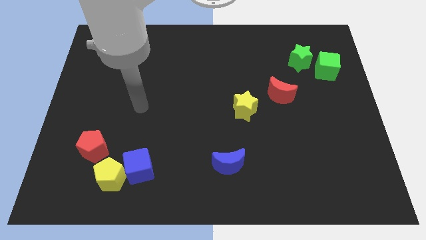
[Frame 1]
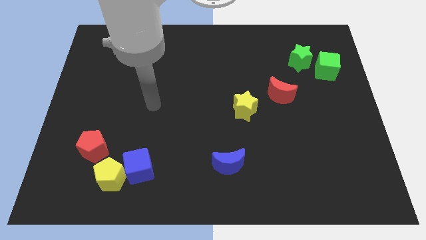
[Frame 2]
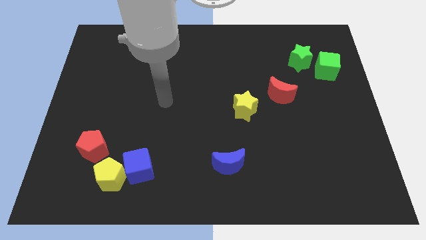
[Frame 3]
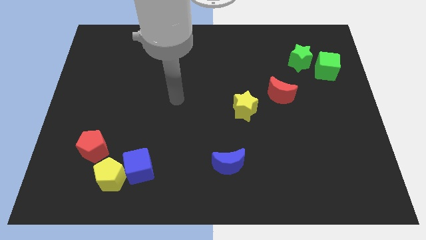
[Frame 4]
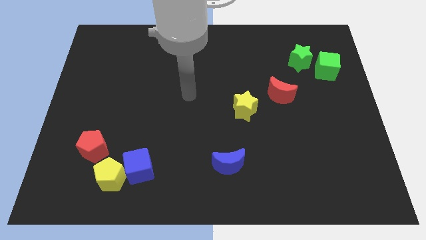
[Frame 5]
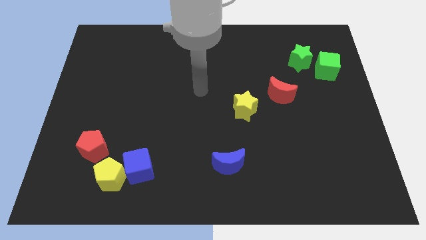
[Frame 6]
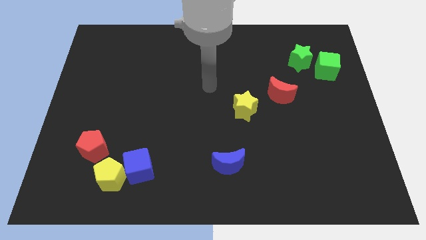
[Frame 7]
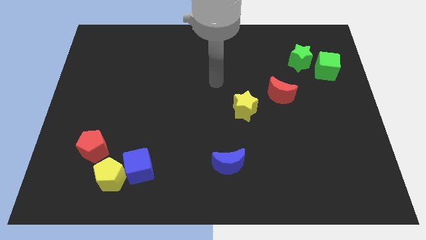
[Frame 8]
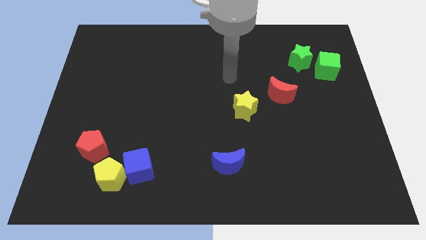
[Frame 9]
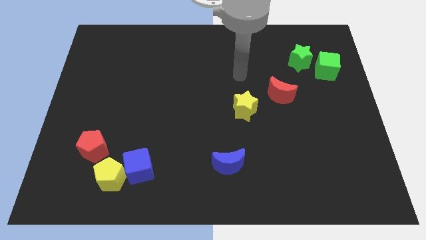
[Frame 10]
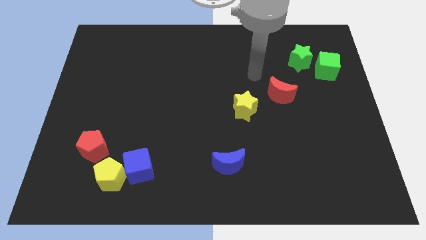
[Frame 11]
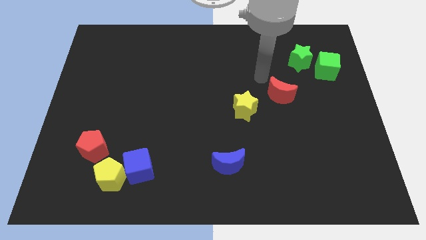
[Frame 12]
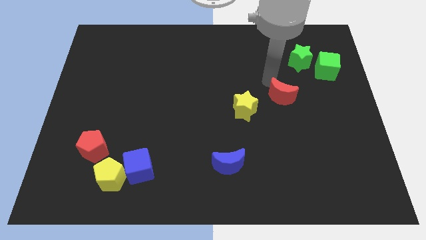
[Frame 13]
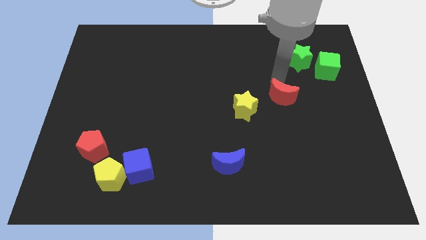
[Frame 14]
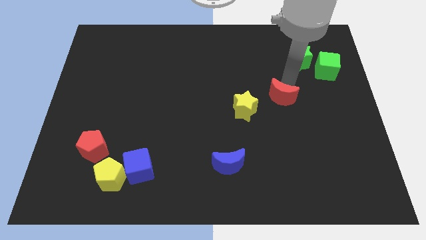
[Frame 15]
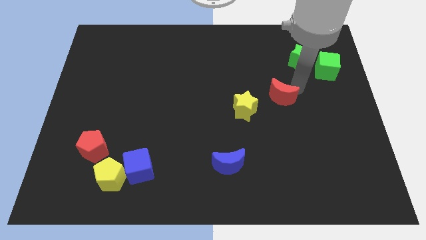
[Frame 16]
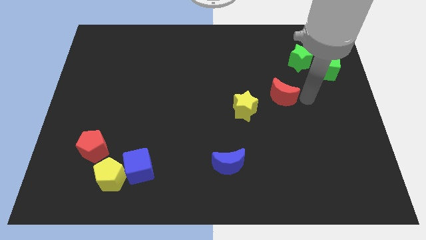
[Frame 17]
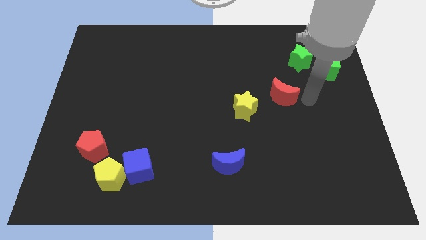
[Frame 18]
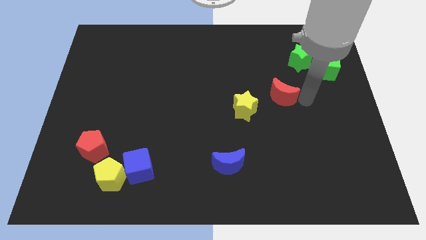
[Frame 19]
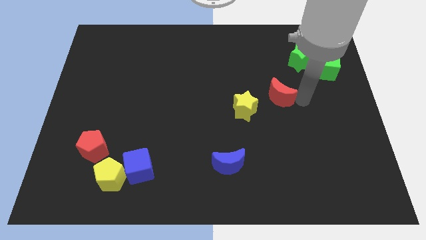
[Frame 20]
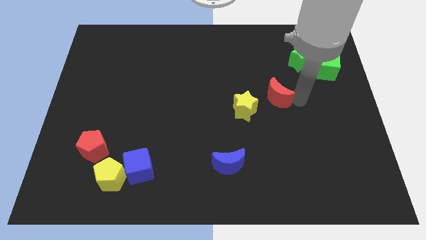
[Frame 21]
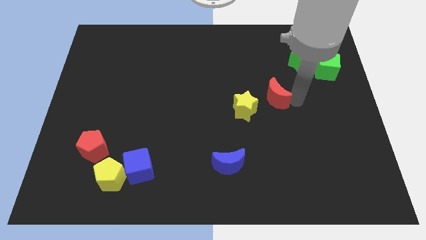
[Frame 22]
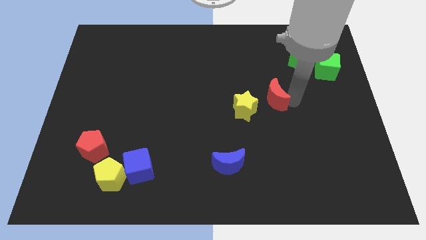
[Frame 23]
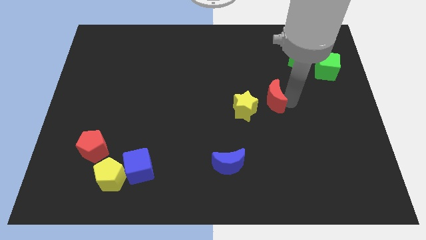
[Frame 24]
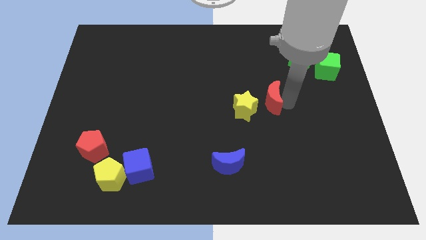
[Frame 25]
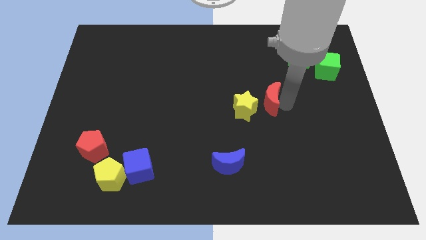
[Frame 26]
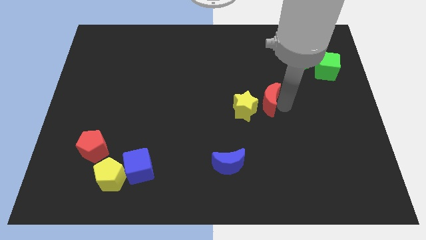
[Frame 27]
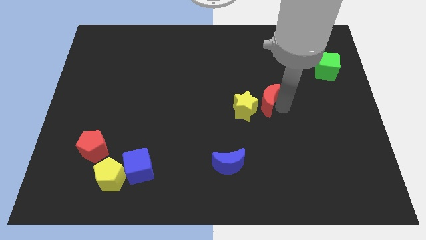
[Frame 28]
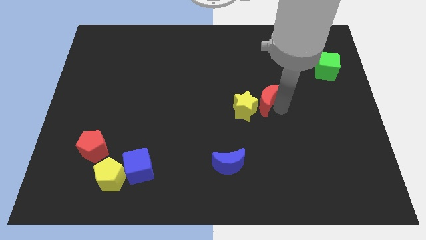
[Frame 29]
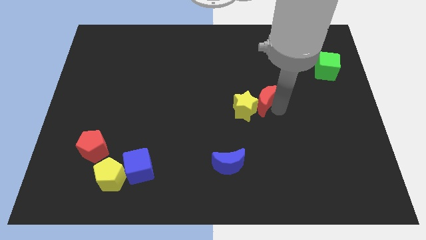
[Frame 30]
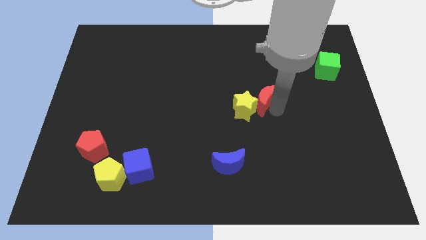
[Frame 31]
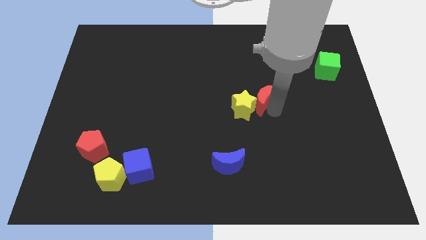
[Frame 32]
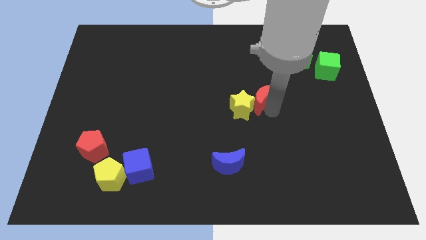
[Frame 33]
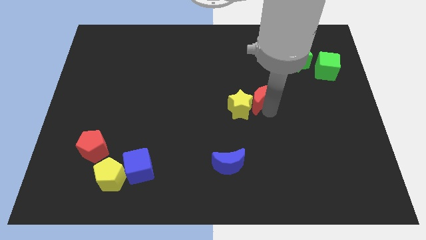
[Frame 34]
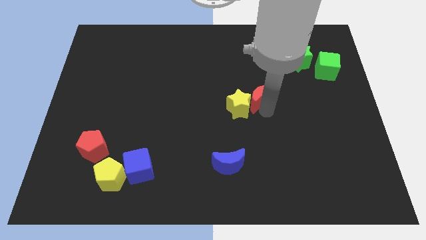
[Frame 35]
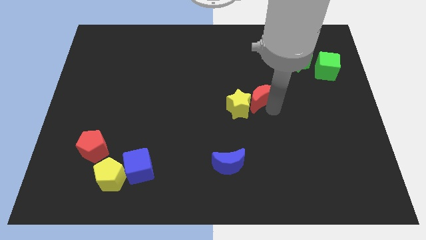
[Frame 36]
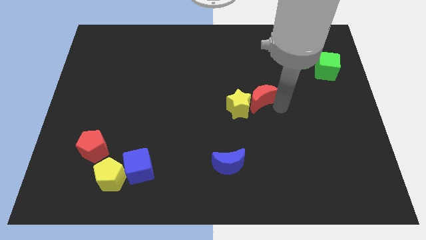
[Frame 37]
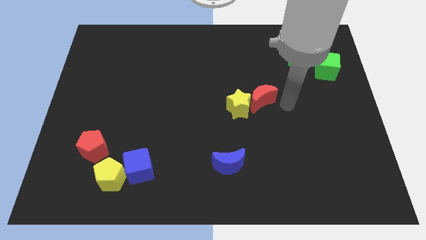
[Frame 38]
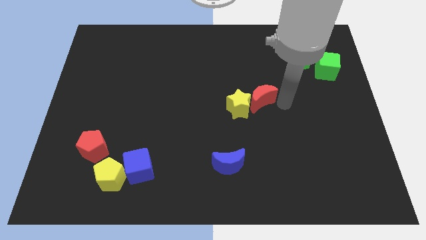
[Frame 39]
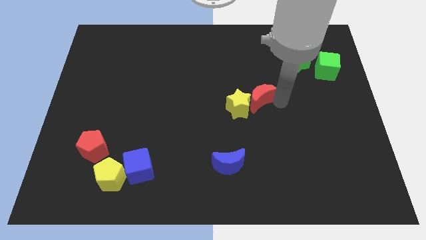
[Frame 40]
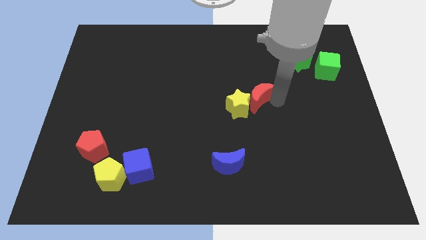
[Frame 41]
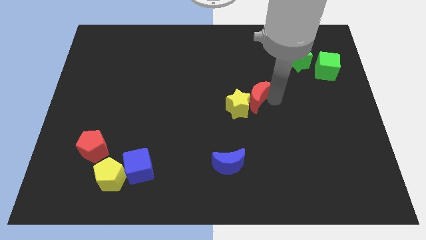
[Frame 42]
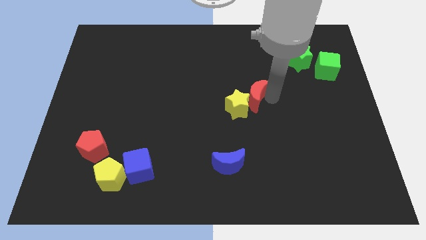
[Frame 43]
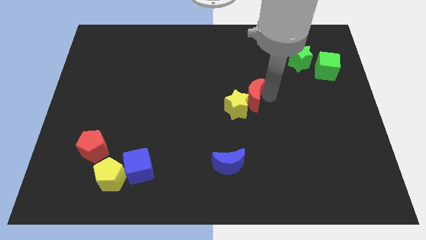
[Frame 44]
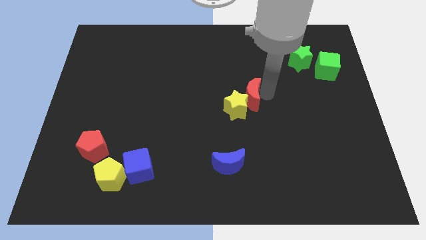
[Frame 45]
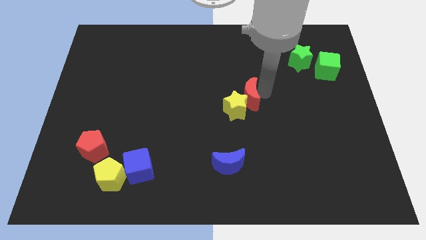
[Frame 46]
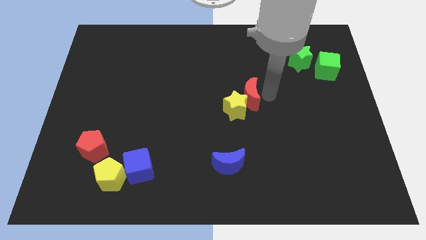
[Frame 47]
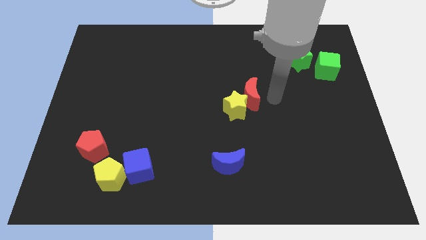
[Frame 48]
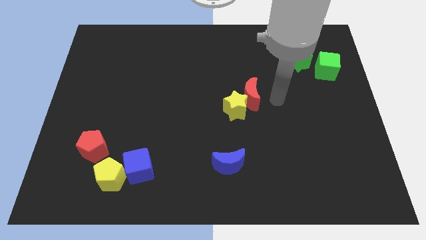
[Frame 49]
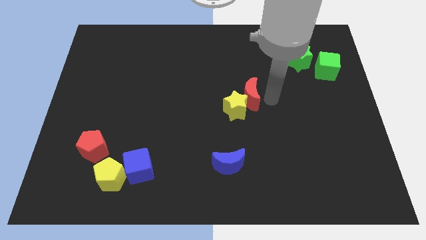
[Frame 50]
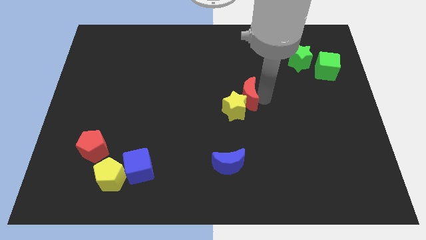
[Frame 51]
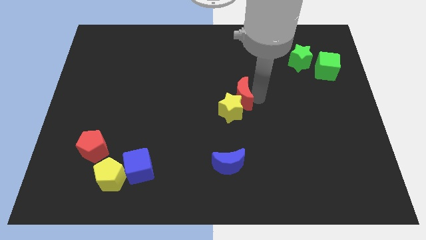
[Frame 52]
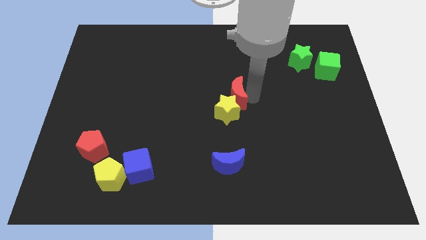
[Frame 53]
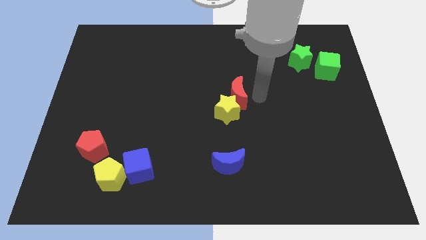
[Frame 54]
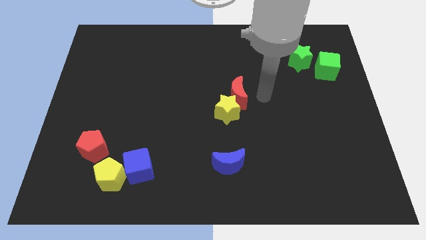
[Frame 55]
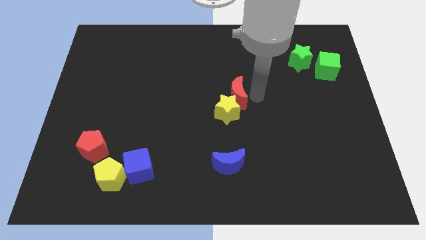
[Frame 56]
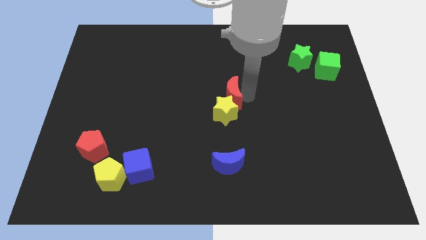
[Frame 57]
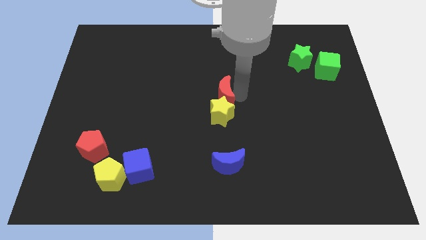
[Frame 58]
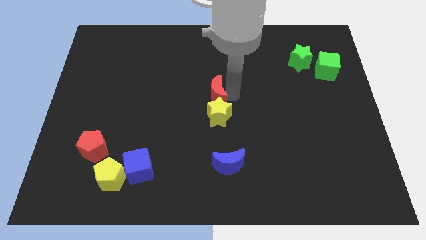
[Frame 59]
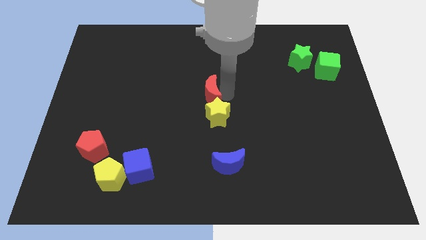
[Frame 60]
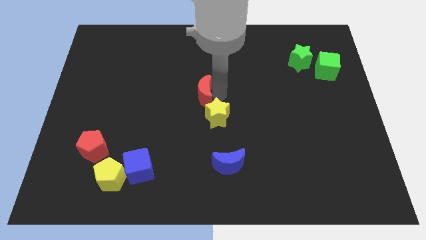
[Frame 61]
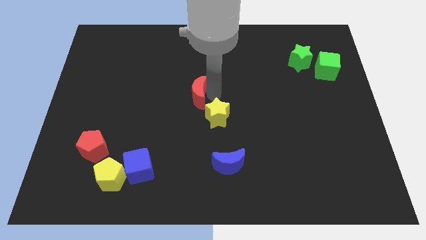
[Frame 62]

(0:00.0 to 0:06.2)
push the red moon to the left

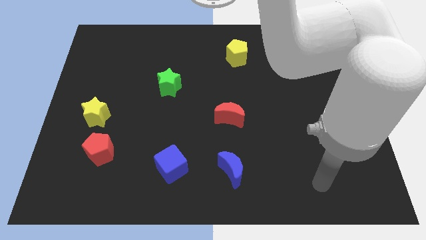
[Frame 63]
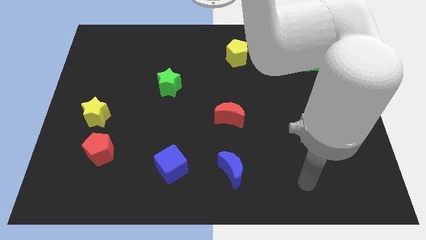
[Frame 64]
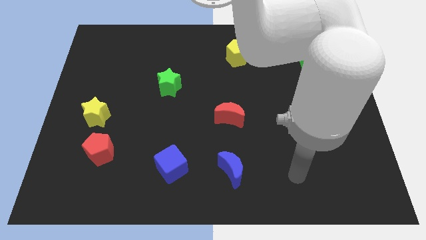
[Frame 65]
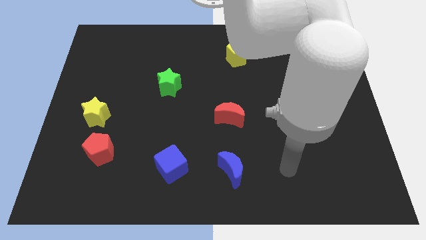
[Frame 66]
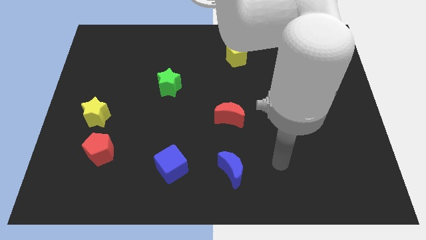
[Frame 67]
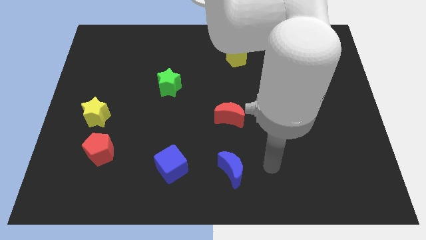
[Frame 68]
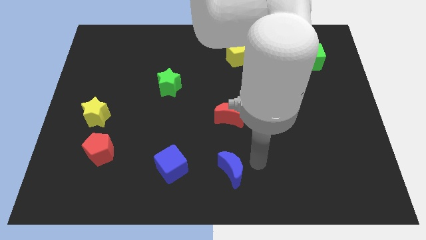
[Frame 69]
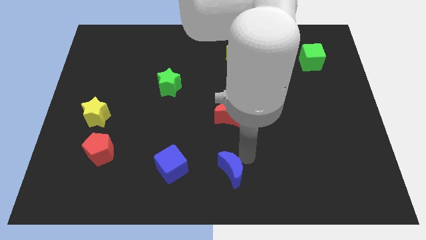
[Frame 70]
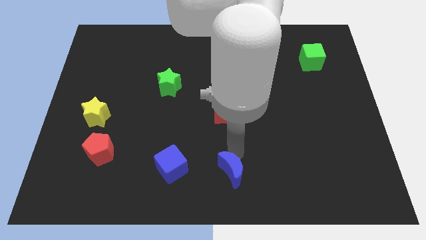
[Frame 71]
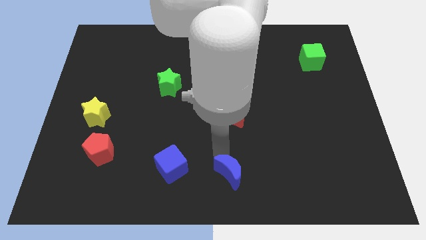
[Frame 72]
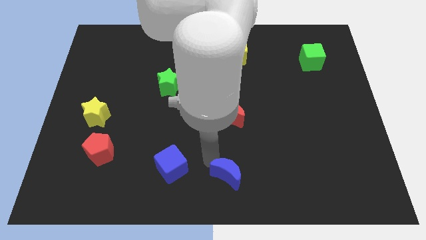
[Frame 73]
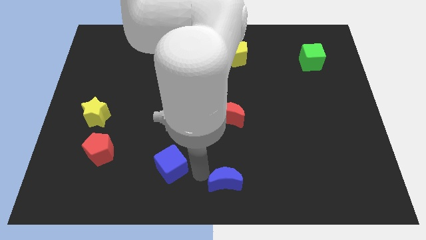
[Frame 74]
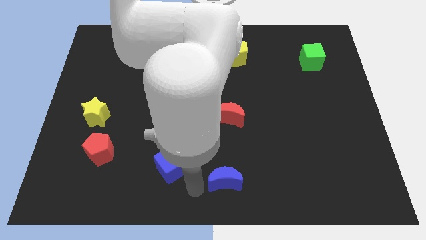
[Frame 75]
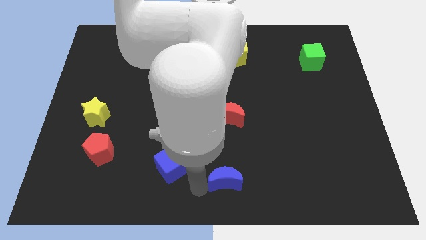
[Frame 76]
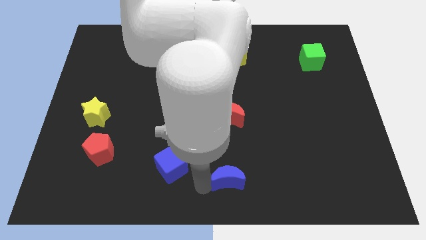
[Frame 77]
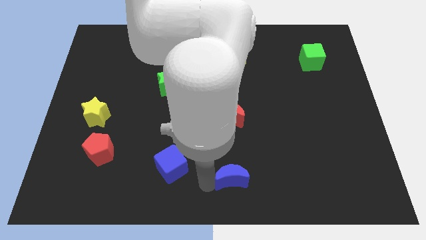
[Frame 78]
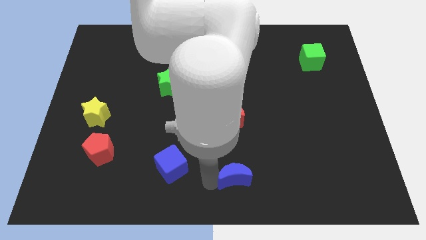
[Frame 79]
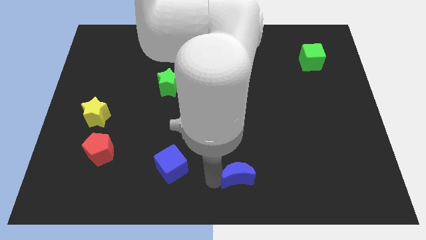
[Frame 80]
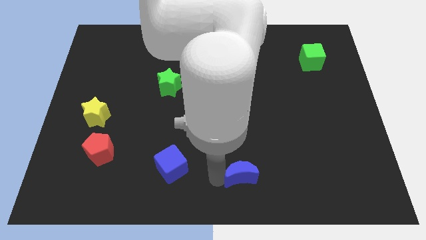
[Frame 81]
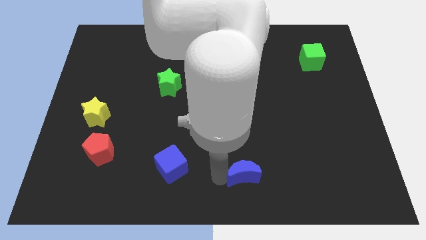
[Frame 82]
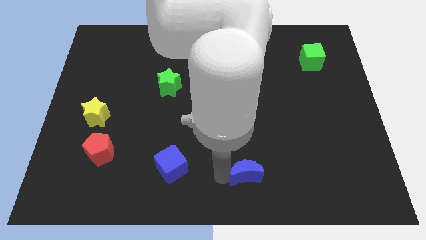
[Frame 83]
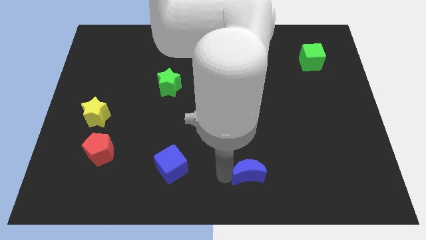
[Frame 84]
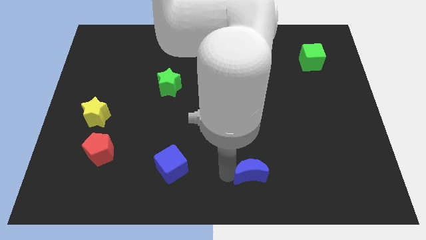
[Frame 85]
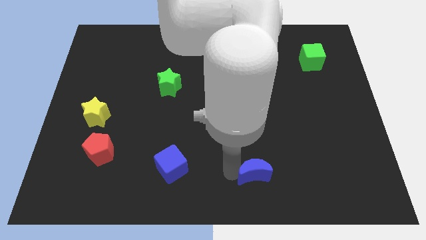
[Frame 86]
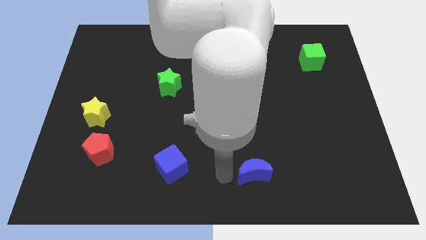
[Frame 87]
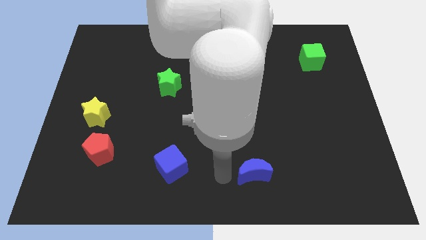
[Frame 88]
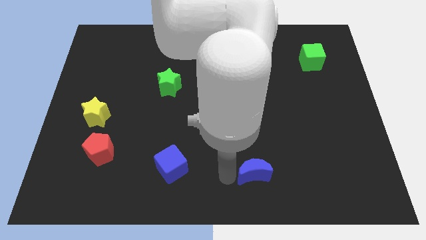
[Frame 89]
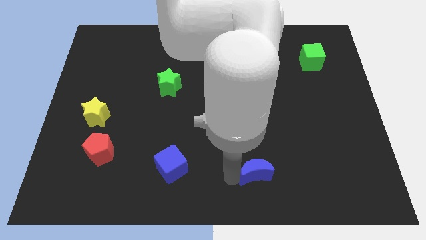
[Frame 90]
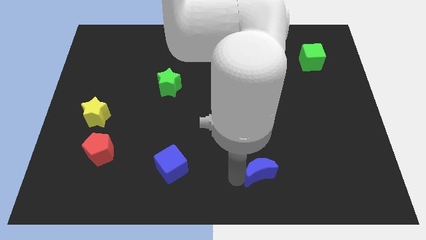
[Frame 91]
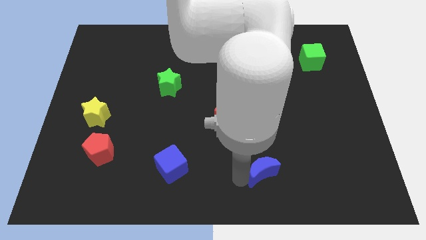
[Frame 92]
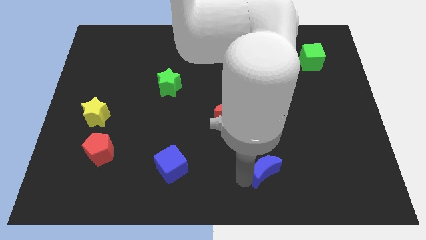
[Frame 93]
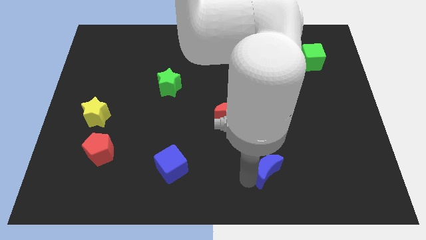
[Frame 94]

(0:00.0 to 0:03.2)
push the blue moon right a little bit
